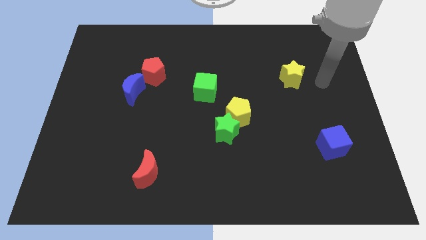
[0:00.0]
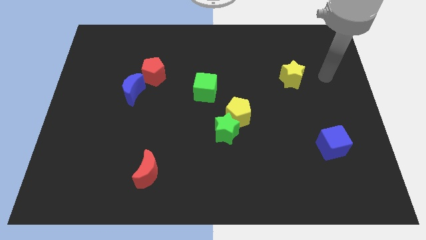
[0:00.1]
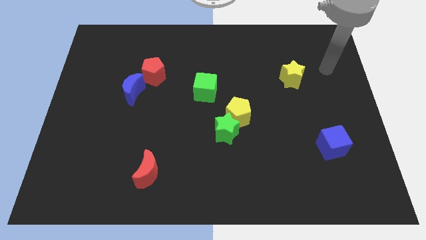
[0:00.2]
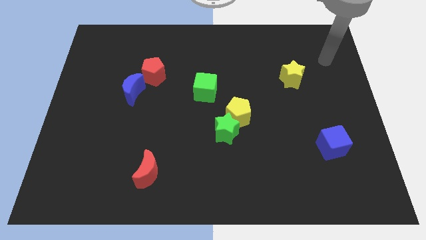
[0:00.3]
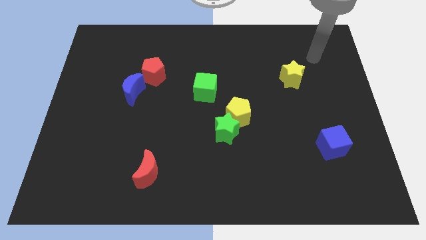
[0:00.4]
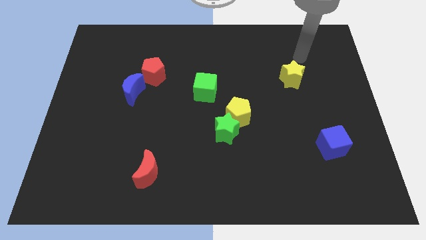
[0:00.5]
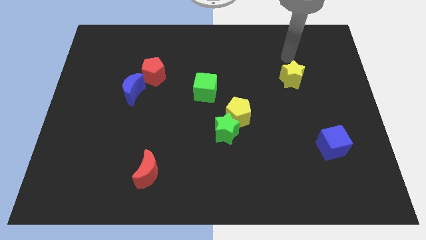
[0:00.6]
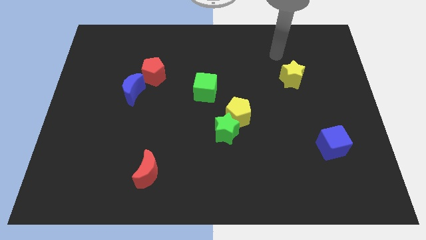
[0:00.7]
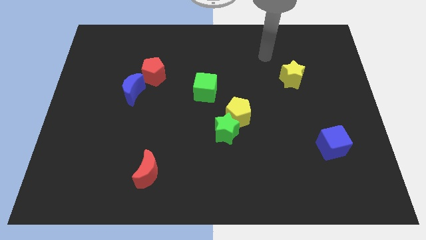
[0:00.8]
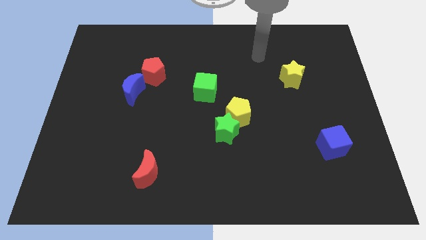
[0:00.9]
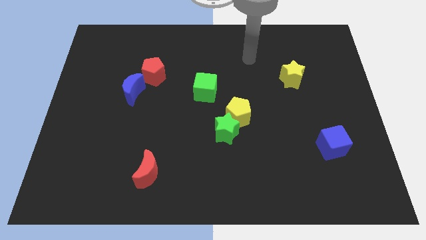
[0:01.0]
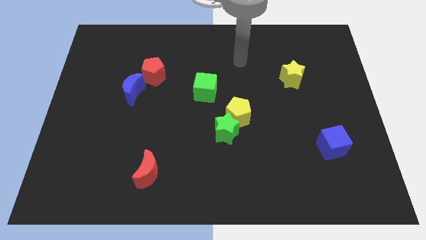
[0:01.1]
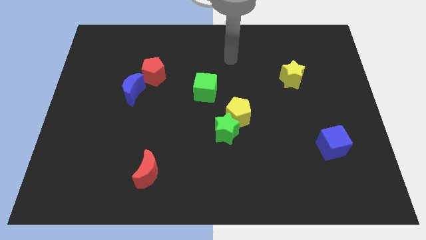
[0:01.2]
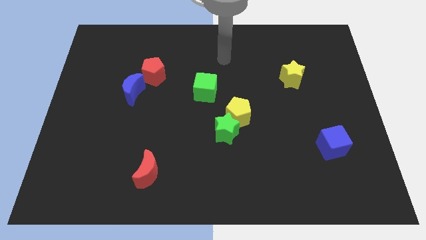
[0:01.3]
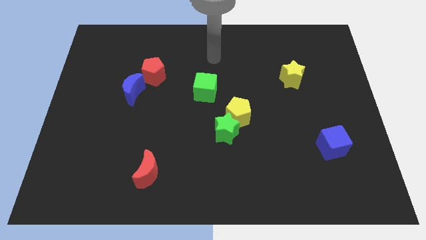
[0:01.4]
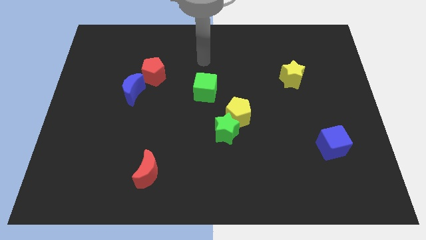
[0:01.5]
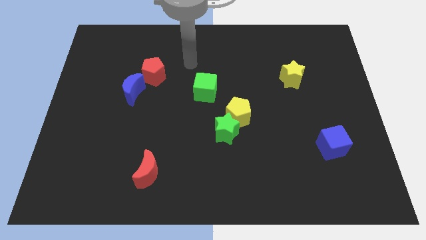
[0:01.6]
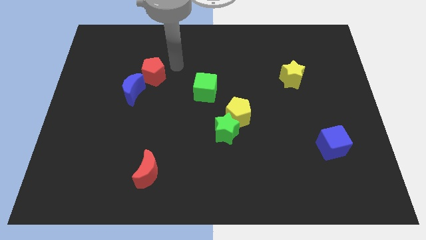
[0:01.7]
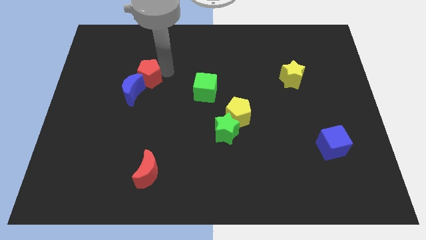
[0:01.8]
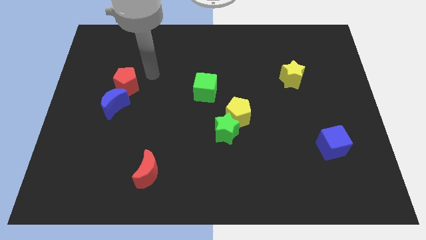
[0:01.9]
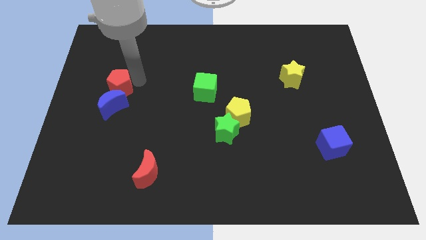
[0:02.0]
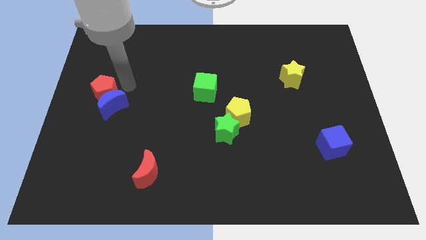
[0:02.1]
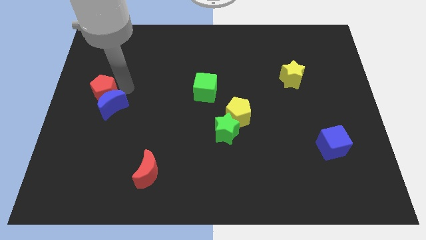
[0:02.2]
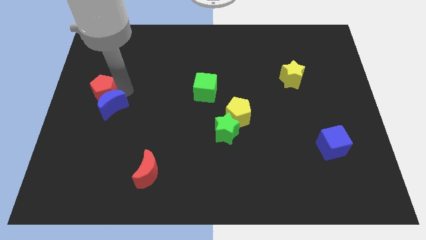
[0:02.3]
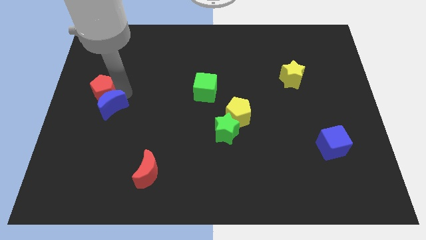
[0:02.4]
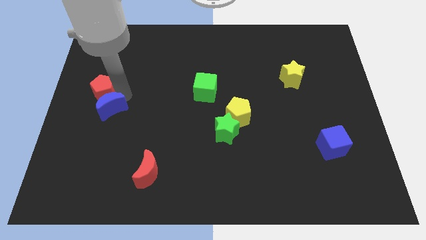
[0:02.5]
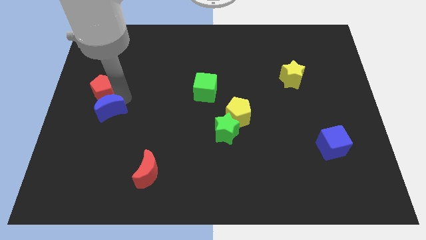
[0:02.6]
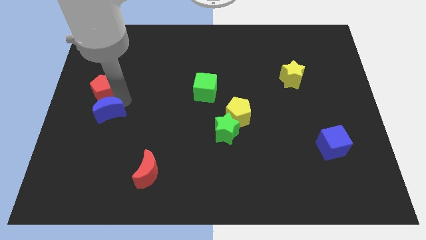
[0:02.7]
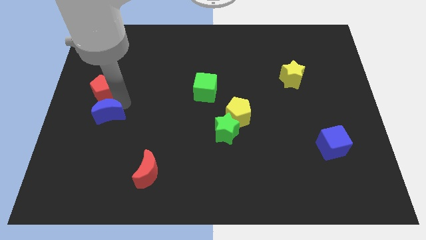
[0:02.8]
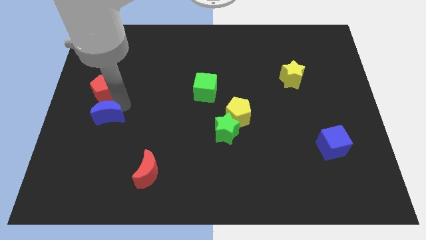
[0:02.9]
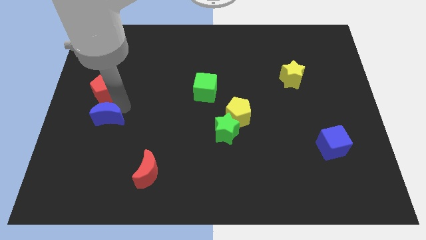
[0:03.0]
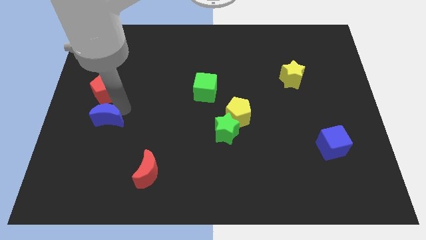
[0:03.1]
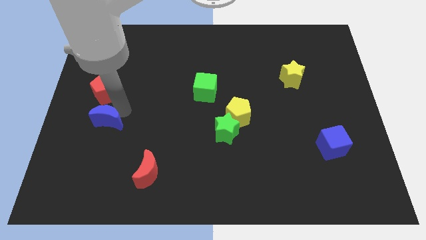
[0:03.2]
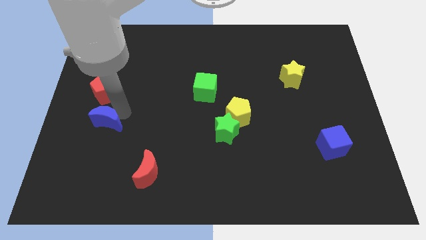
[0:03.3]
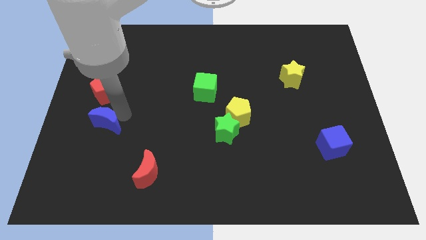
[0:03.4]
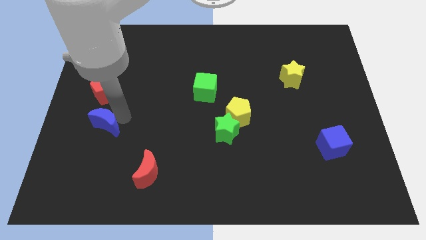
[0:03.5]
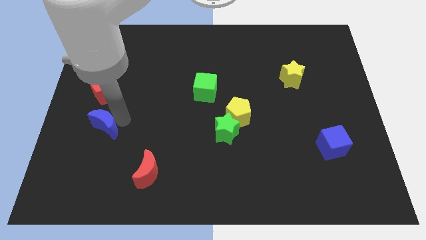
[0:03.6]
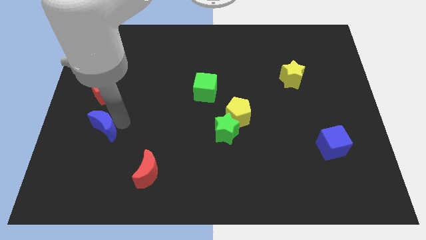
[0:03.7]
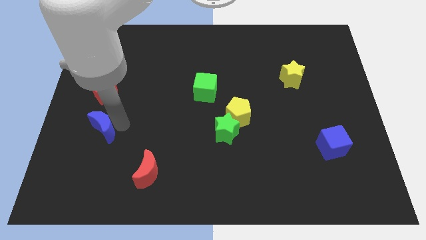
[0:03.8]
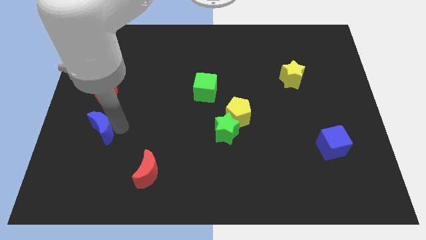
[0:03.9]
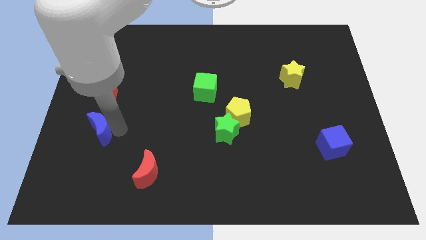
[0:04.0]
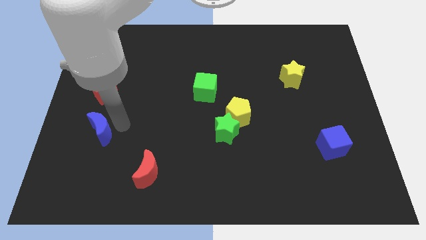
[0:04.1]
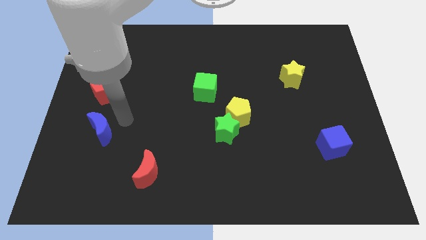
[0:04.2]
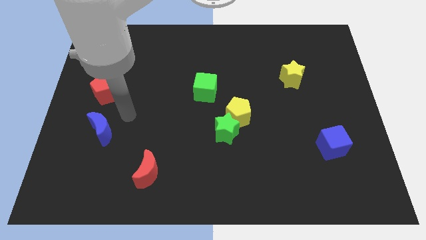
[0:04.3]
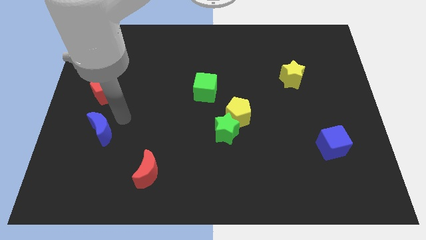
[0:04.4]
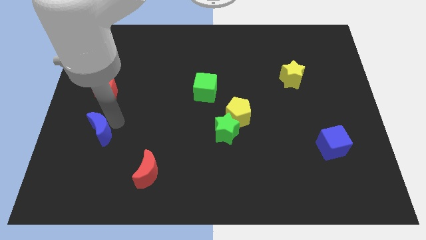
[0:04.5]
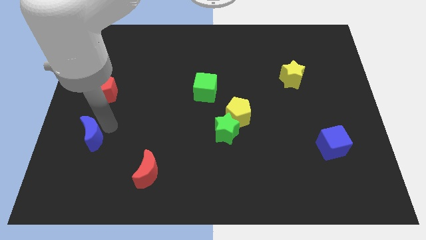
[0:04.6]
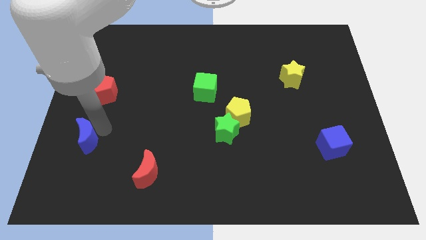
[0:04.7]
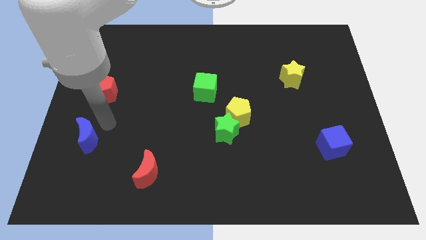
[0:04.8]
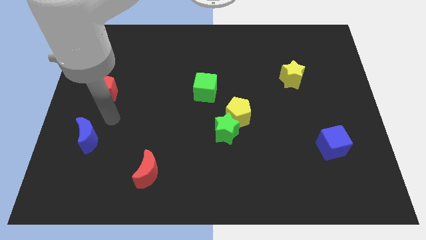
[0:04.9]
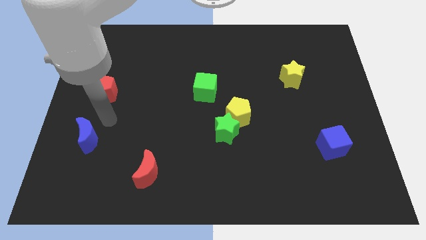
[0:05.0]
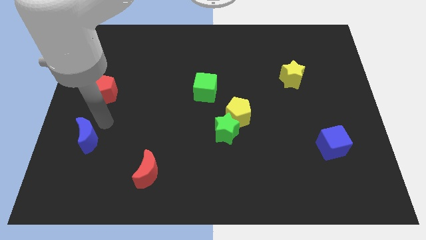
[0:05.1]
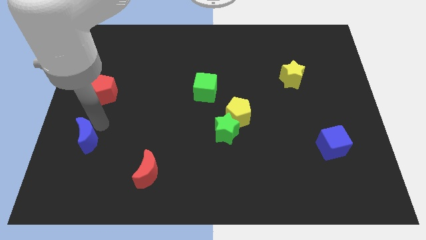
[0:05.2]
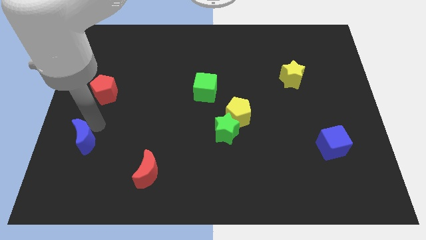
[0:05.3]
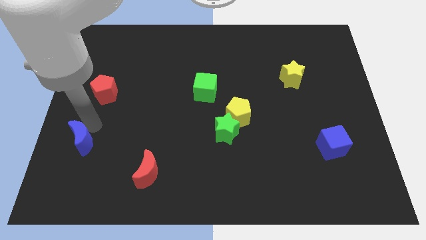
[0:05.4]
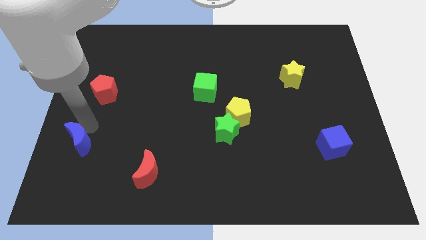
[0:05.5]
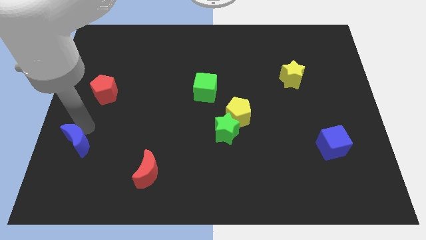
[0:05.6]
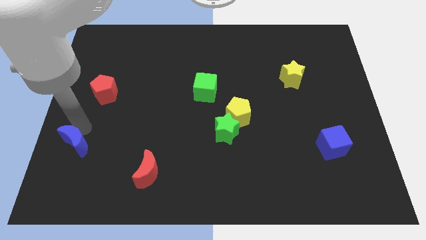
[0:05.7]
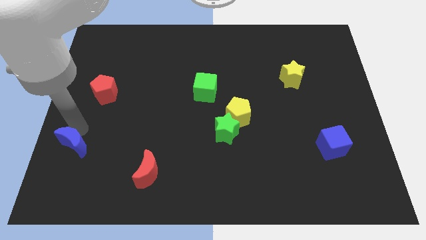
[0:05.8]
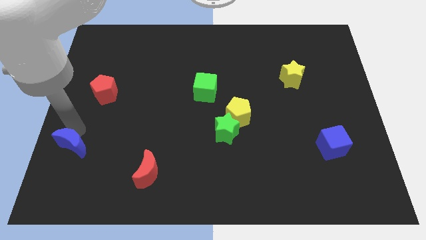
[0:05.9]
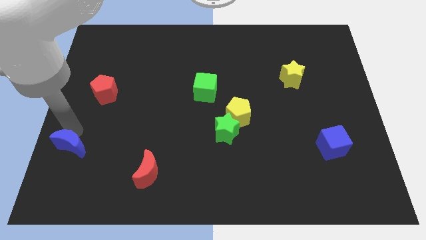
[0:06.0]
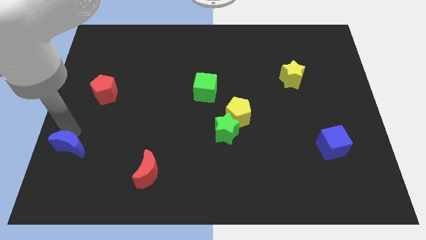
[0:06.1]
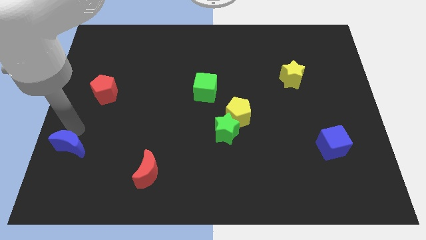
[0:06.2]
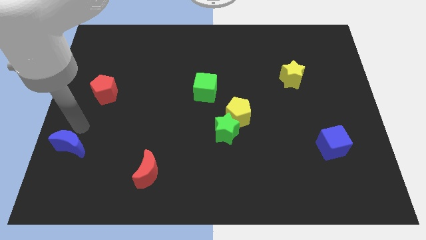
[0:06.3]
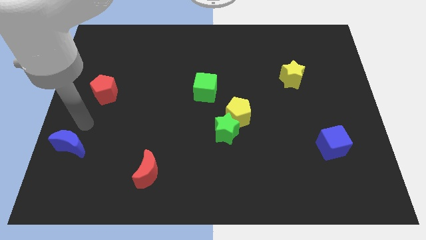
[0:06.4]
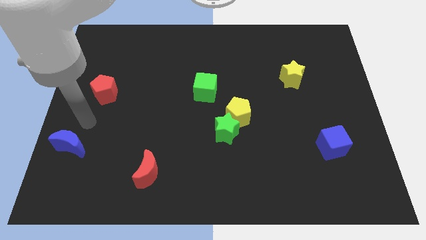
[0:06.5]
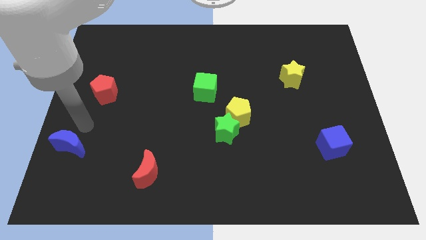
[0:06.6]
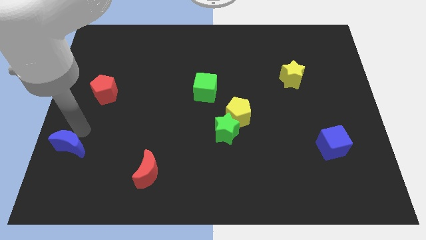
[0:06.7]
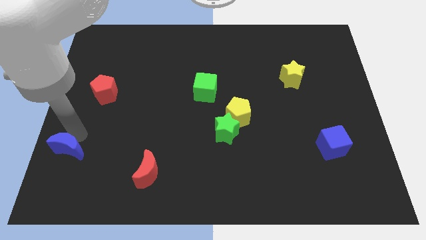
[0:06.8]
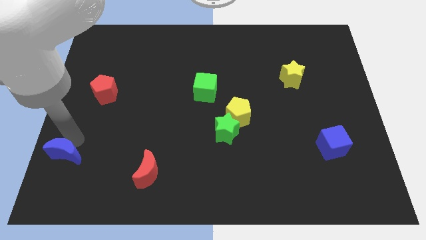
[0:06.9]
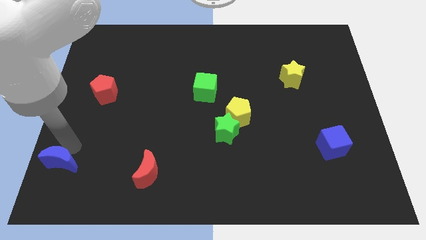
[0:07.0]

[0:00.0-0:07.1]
push the blue moon to the bottom left corner

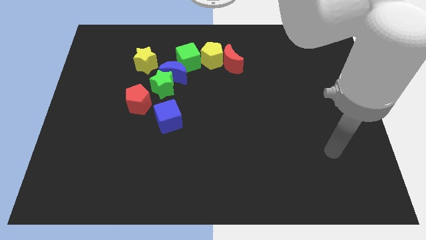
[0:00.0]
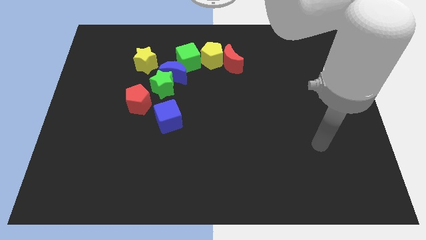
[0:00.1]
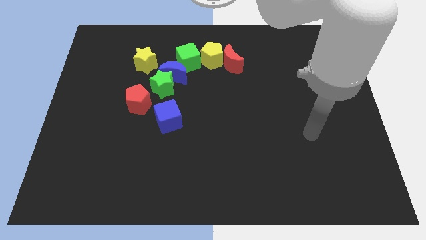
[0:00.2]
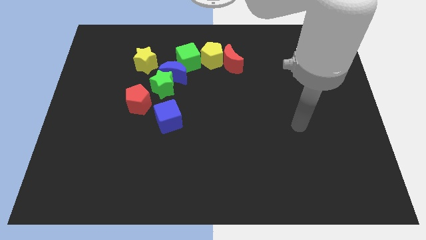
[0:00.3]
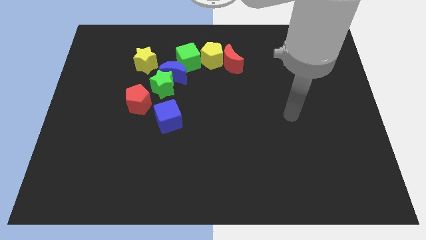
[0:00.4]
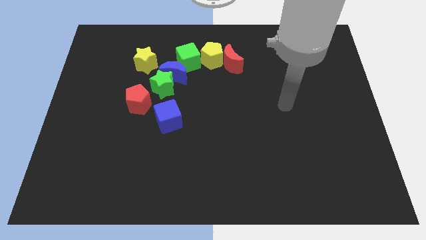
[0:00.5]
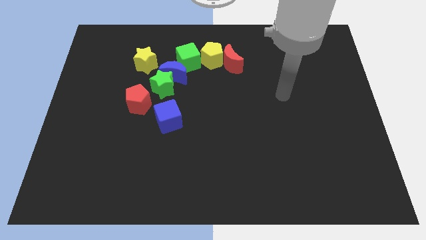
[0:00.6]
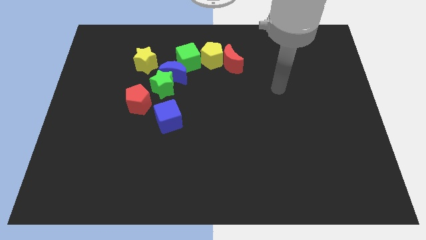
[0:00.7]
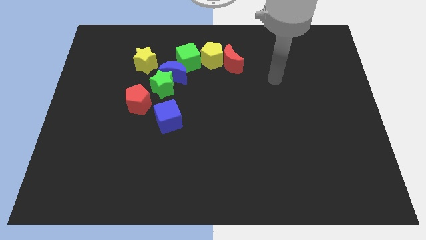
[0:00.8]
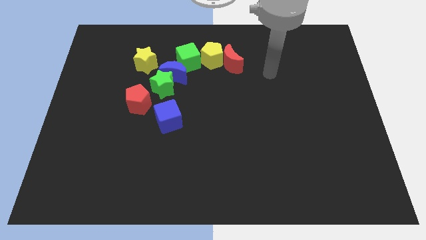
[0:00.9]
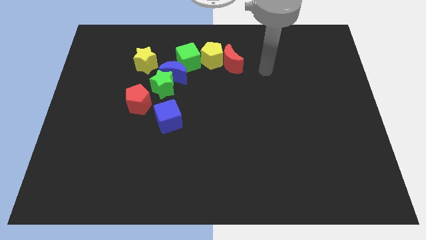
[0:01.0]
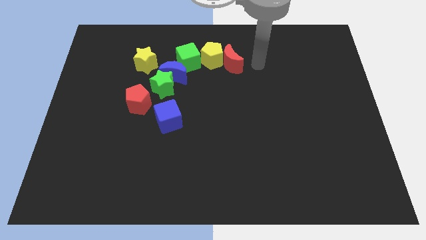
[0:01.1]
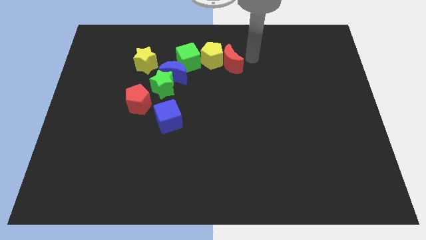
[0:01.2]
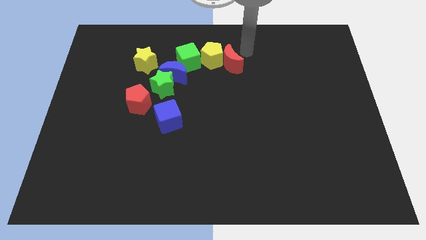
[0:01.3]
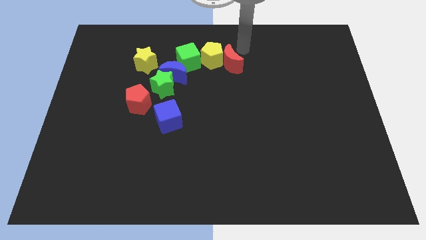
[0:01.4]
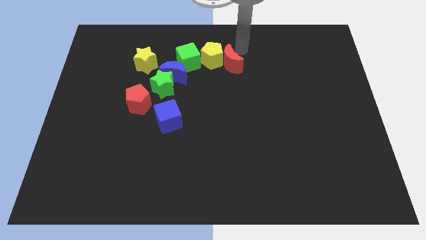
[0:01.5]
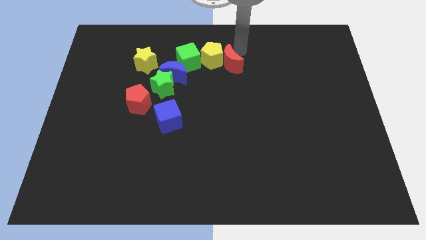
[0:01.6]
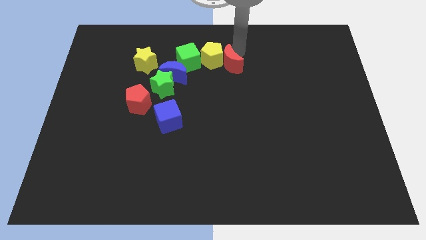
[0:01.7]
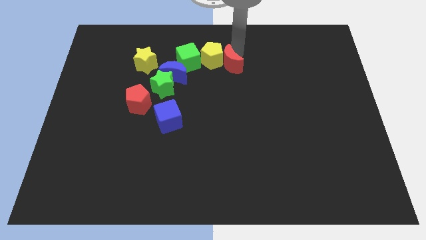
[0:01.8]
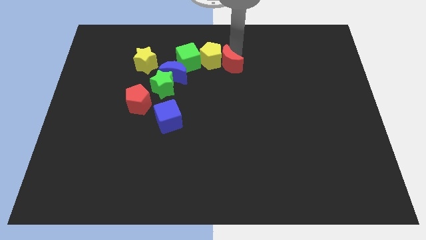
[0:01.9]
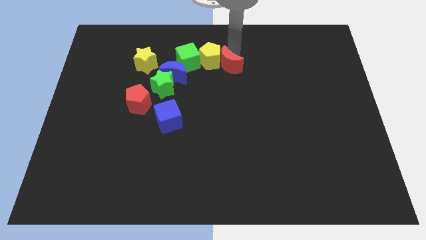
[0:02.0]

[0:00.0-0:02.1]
move the red moon to the center of the board
